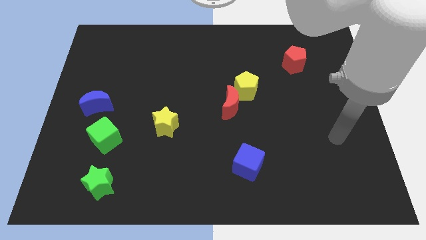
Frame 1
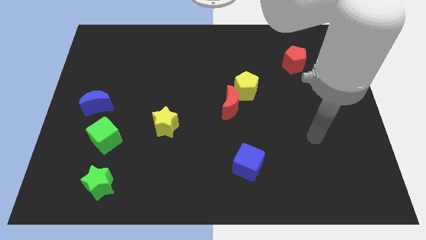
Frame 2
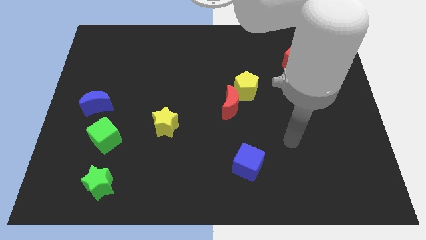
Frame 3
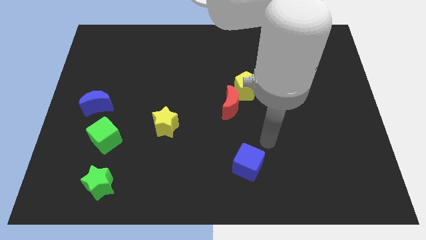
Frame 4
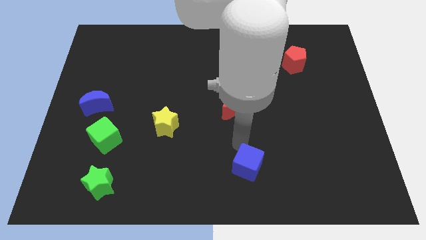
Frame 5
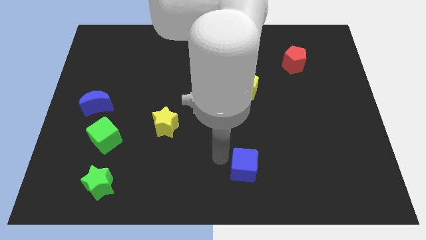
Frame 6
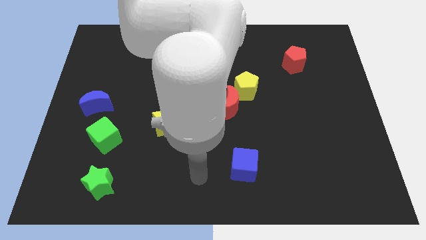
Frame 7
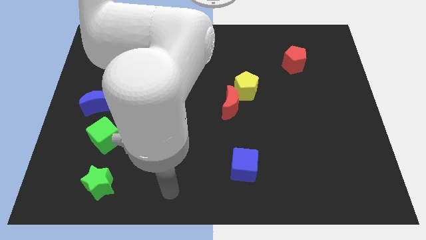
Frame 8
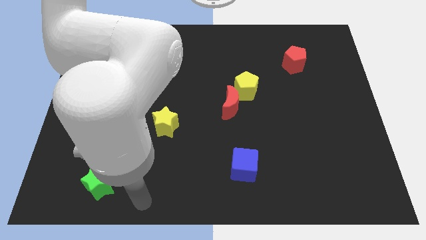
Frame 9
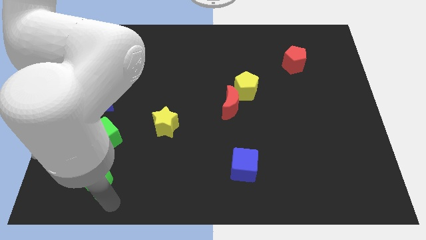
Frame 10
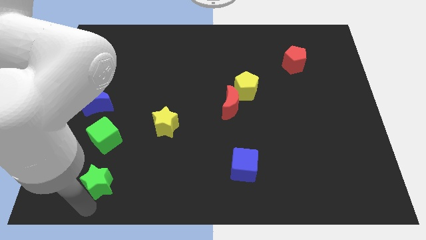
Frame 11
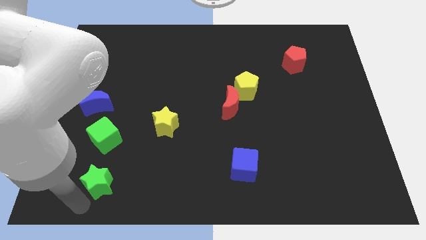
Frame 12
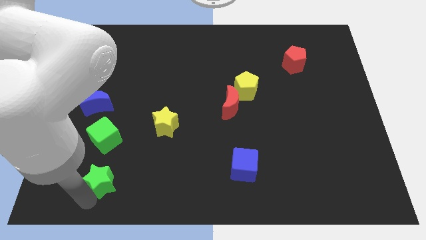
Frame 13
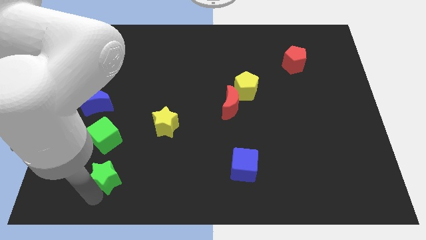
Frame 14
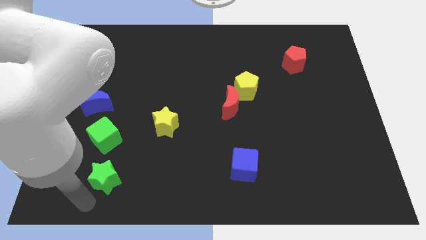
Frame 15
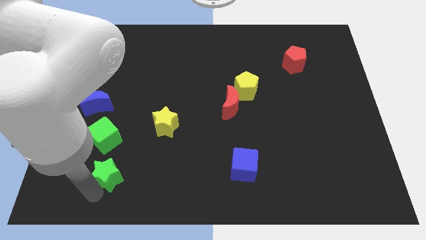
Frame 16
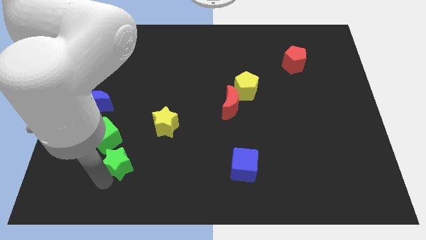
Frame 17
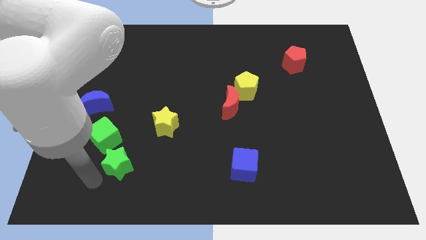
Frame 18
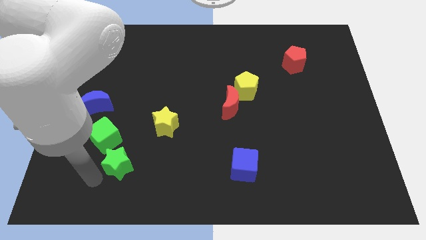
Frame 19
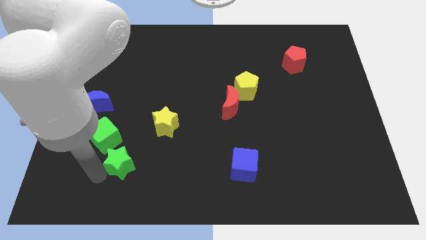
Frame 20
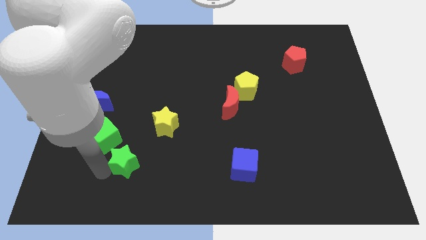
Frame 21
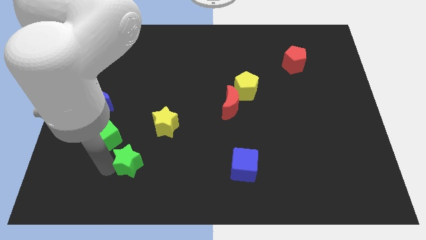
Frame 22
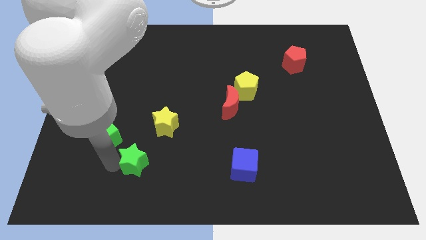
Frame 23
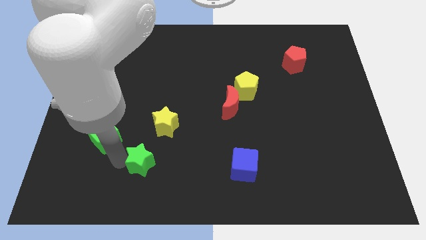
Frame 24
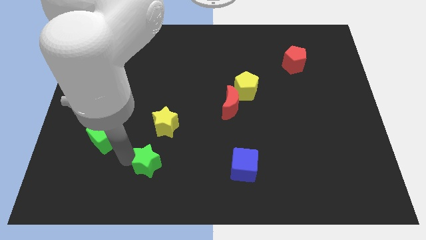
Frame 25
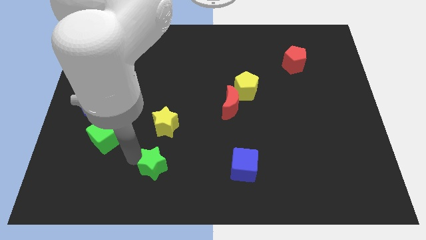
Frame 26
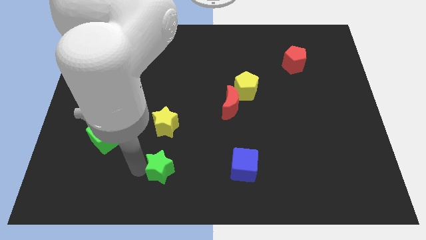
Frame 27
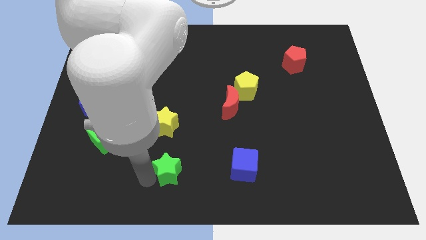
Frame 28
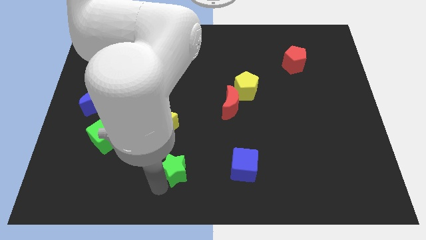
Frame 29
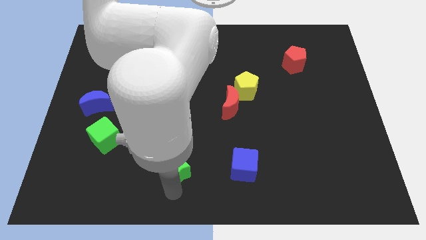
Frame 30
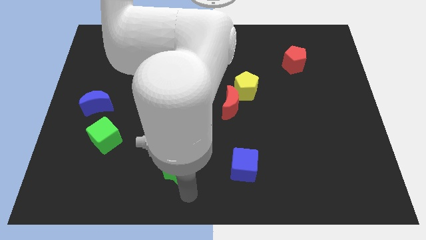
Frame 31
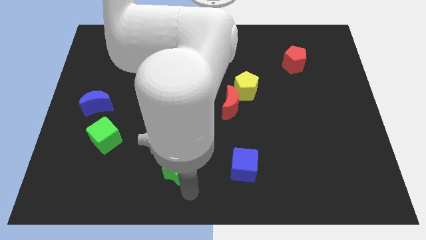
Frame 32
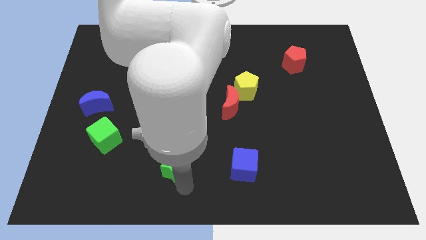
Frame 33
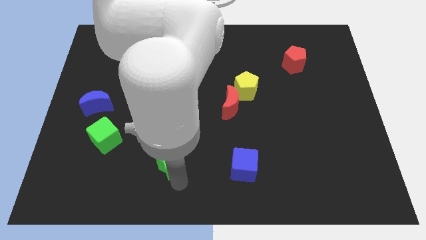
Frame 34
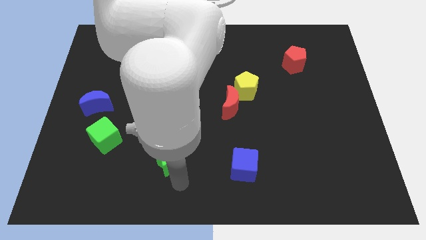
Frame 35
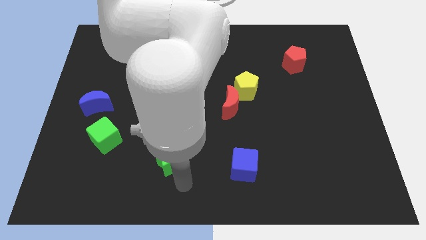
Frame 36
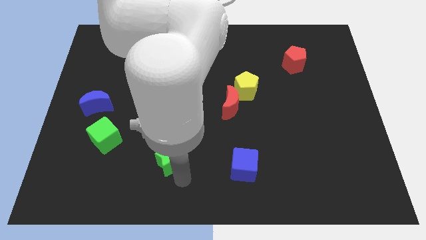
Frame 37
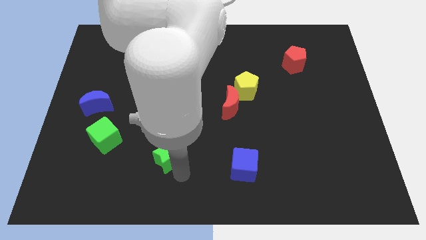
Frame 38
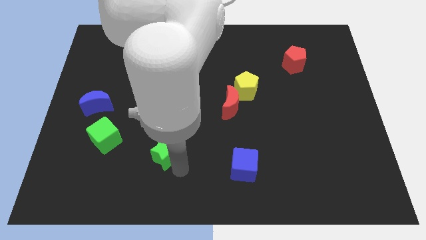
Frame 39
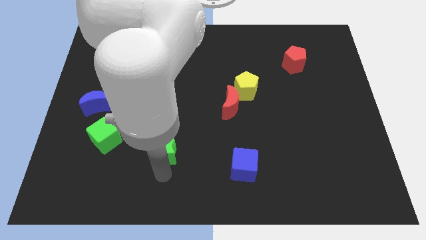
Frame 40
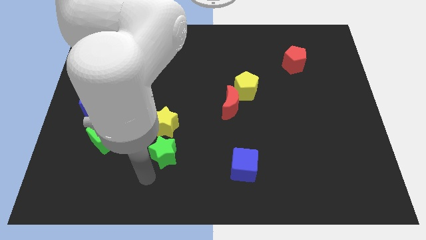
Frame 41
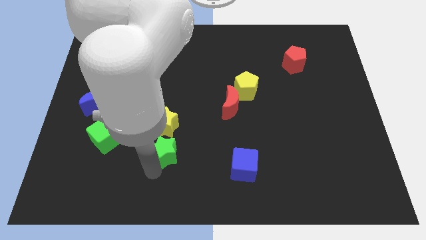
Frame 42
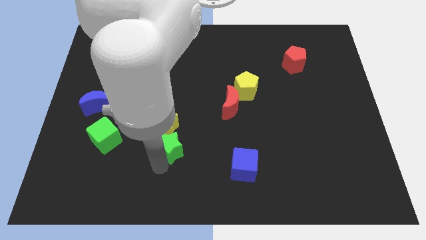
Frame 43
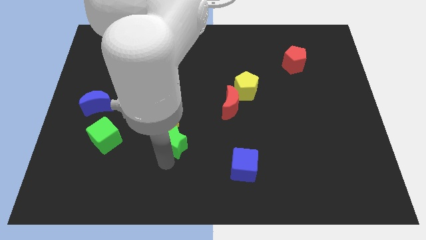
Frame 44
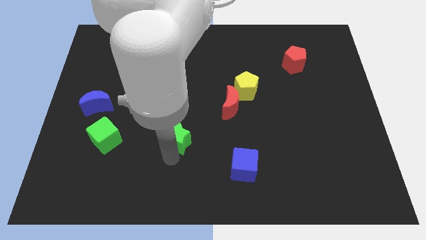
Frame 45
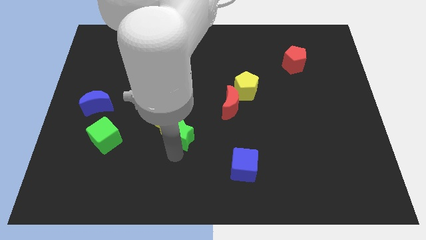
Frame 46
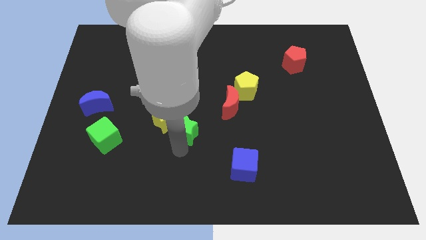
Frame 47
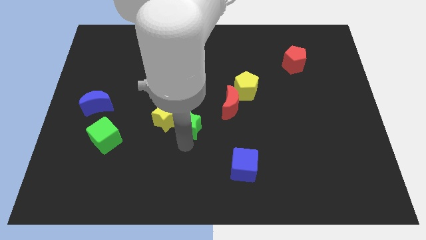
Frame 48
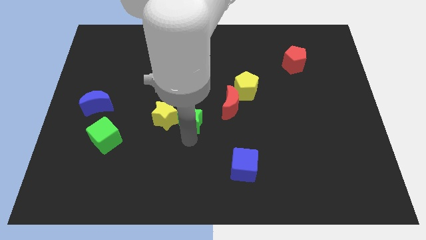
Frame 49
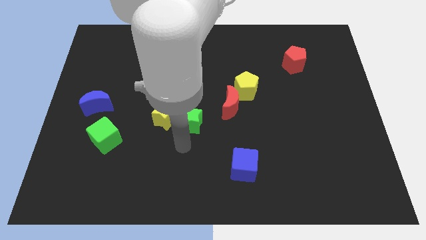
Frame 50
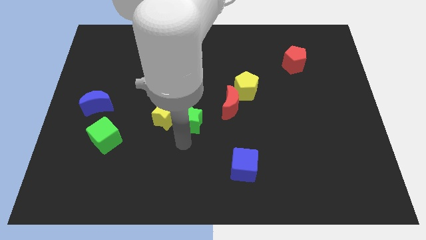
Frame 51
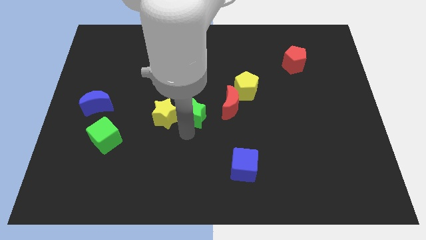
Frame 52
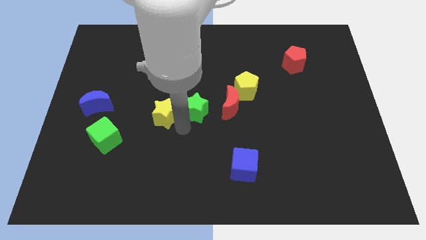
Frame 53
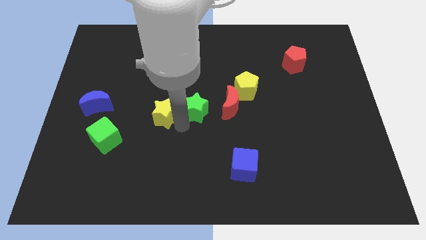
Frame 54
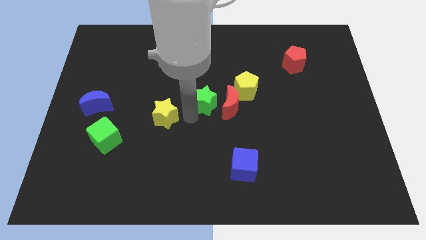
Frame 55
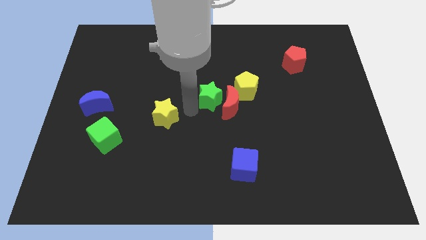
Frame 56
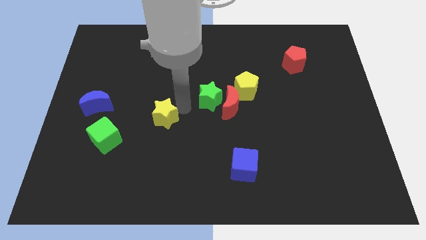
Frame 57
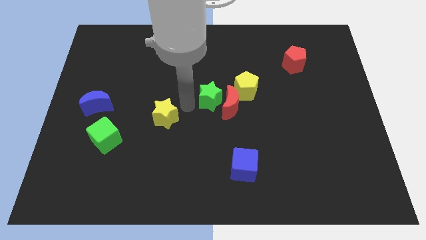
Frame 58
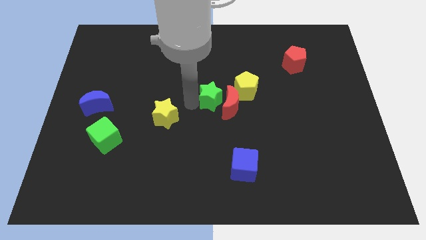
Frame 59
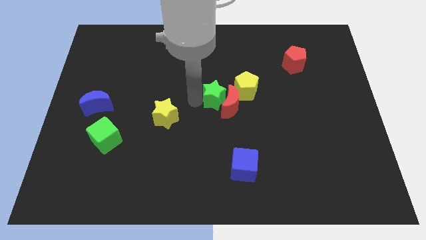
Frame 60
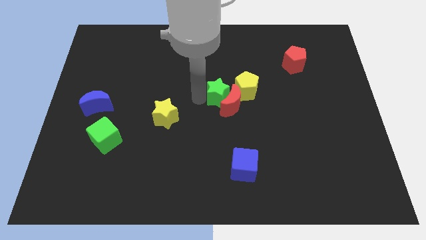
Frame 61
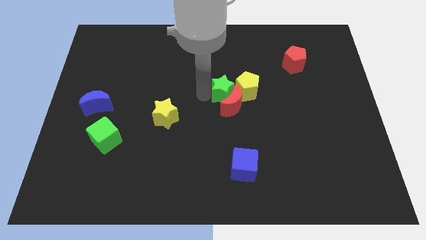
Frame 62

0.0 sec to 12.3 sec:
slide the green star next to the yellow pentagon

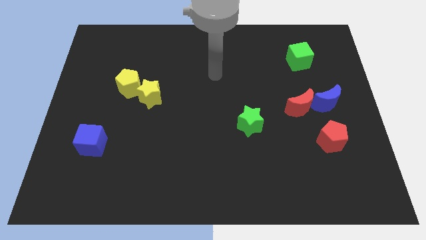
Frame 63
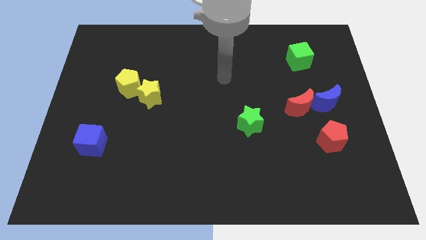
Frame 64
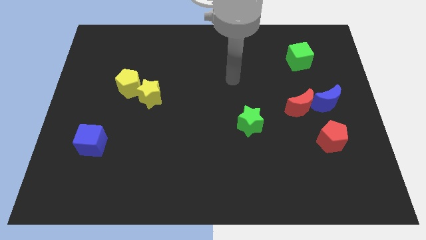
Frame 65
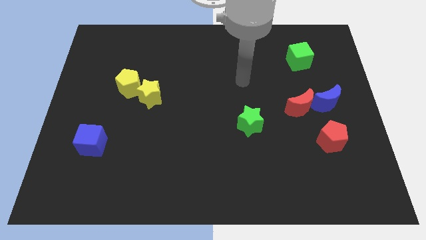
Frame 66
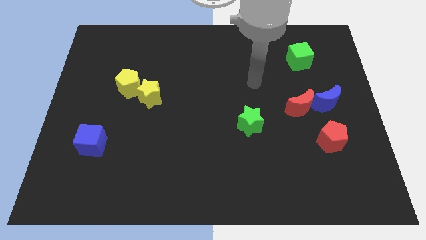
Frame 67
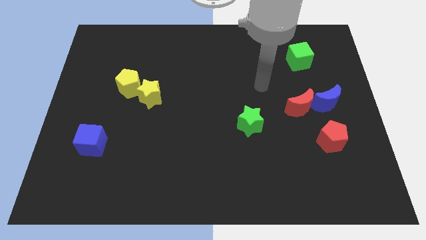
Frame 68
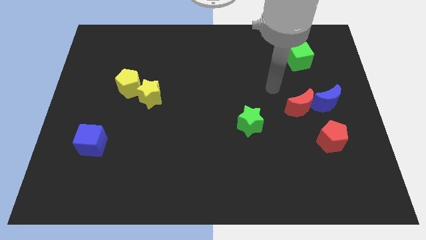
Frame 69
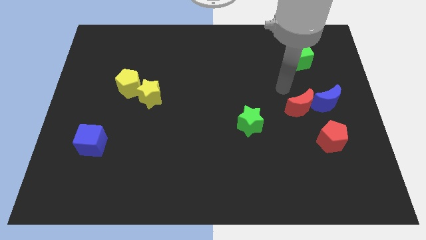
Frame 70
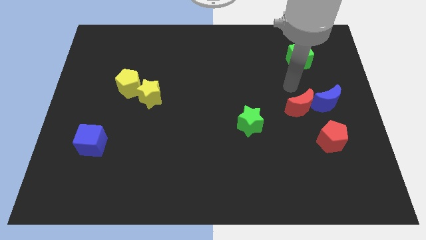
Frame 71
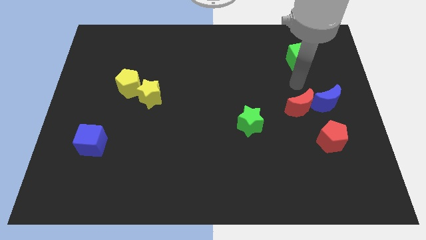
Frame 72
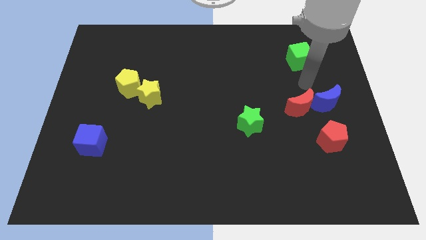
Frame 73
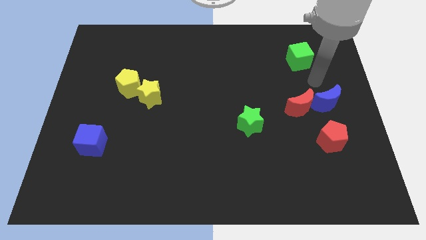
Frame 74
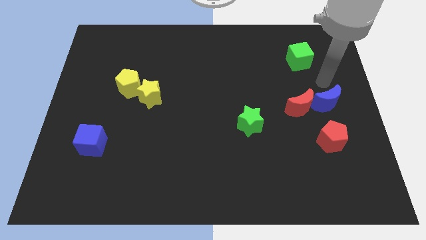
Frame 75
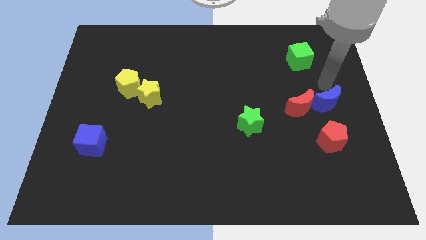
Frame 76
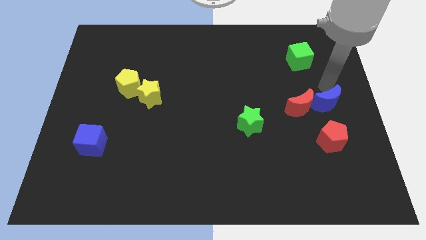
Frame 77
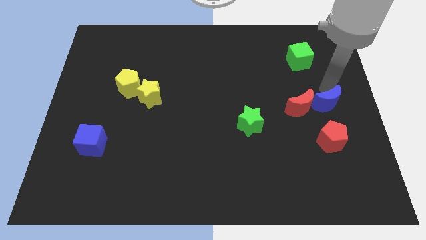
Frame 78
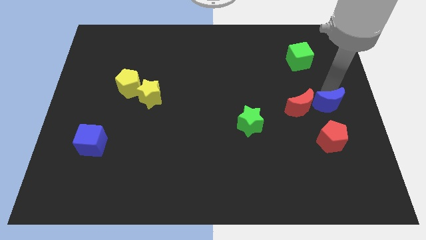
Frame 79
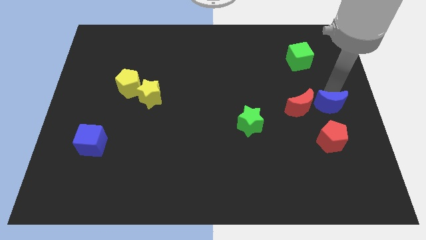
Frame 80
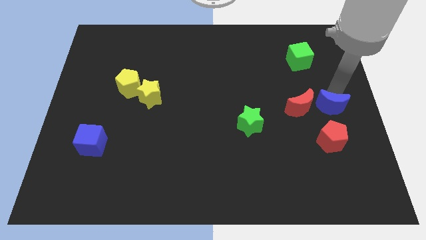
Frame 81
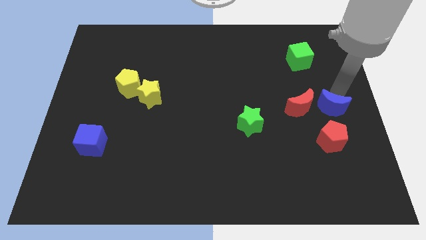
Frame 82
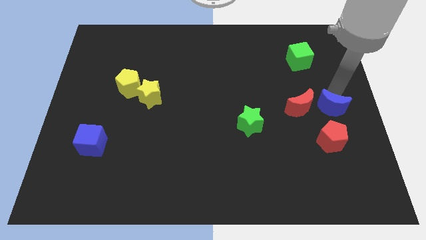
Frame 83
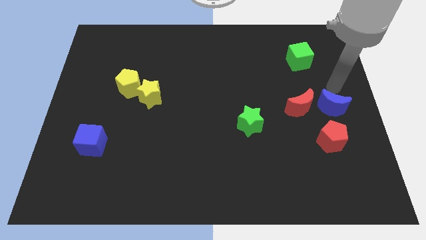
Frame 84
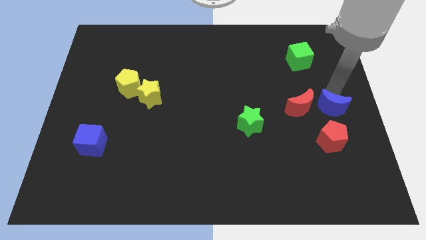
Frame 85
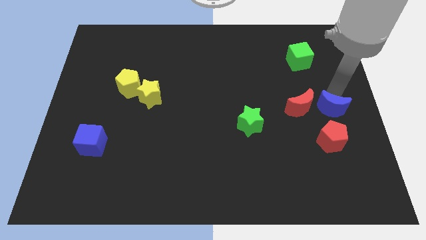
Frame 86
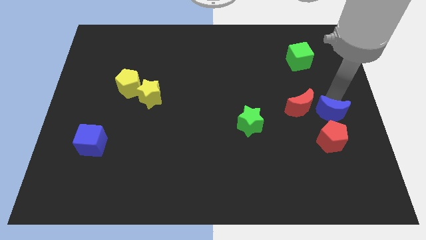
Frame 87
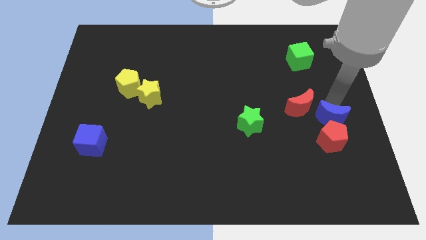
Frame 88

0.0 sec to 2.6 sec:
put the blue moon to the red pentagon
